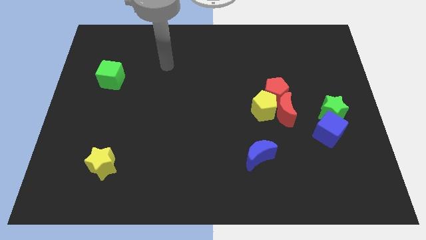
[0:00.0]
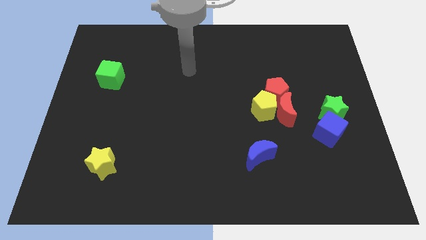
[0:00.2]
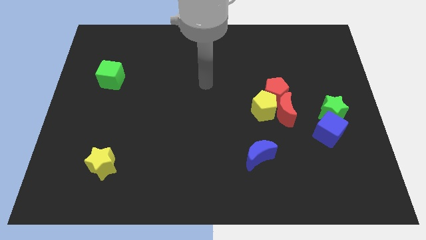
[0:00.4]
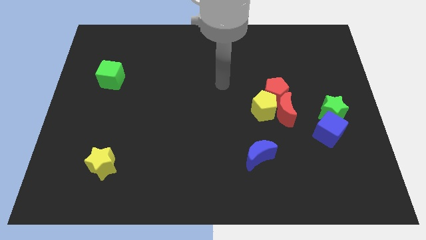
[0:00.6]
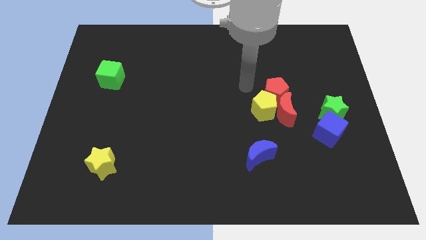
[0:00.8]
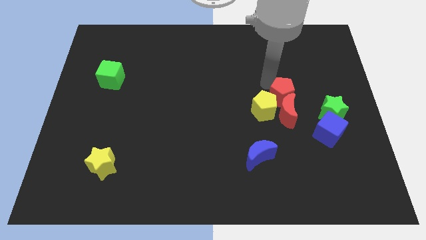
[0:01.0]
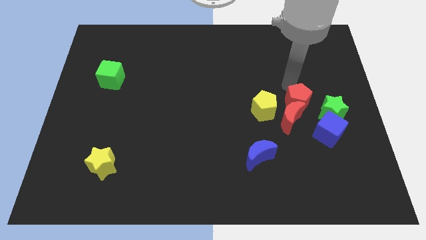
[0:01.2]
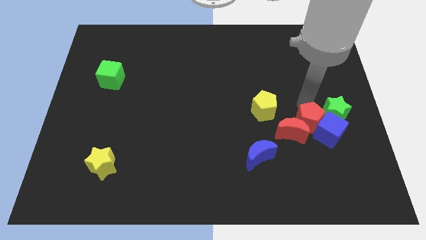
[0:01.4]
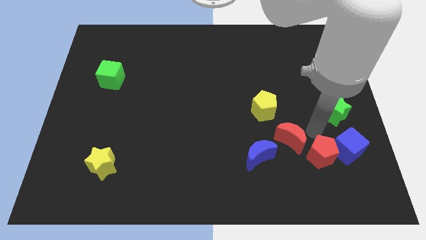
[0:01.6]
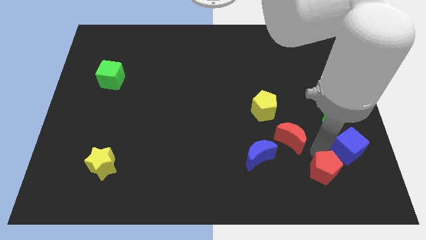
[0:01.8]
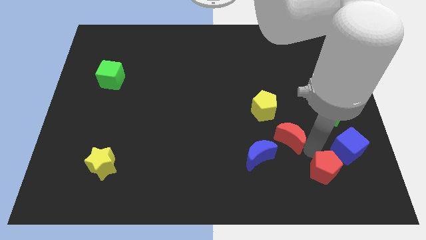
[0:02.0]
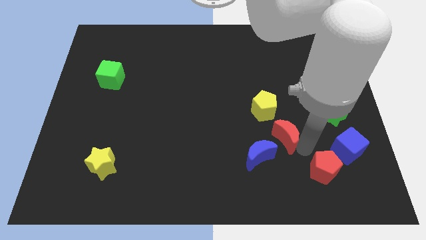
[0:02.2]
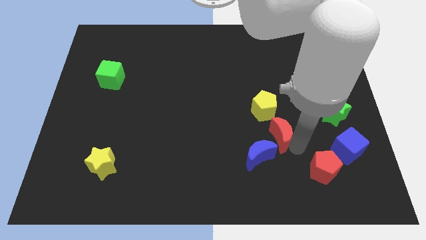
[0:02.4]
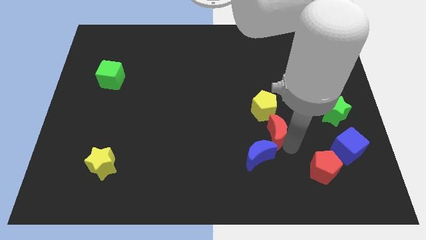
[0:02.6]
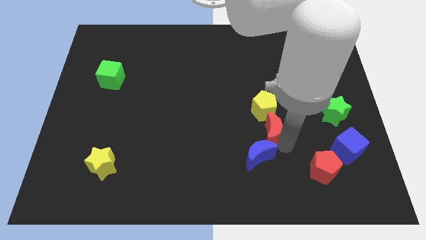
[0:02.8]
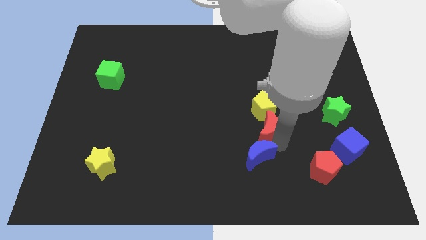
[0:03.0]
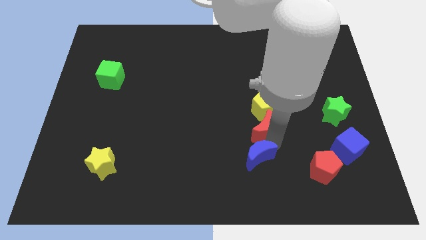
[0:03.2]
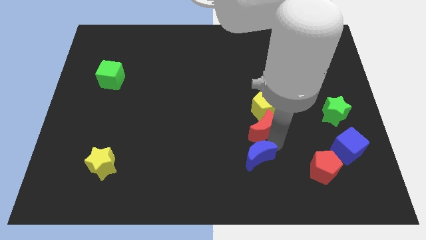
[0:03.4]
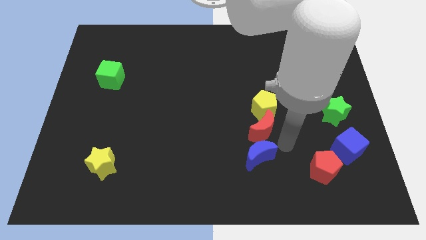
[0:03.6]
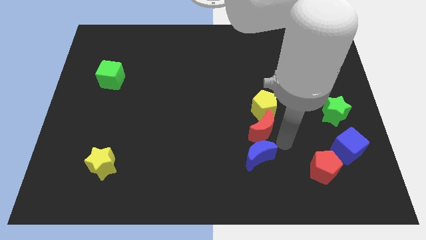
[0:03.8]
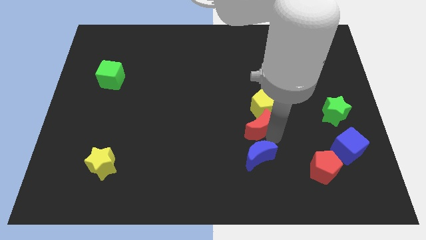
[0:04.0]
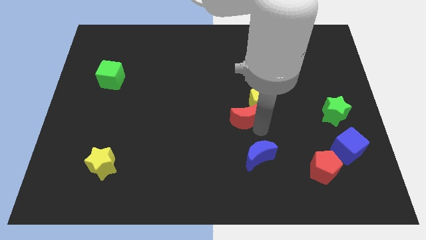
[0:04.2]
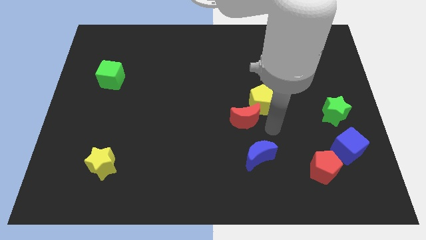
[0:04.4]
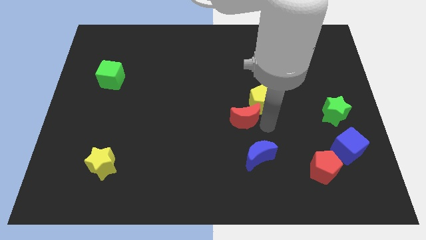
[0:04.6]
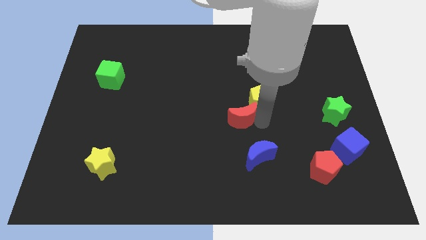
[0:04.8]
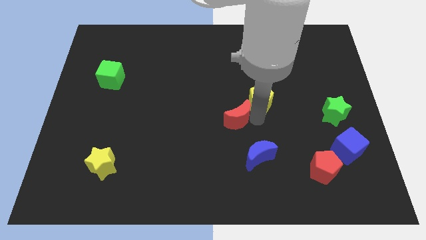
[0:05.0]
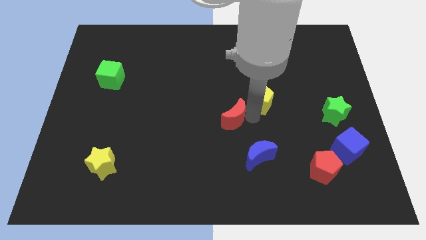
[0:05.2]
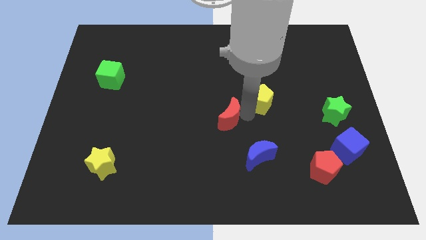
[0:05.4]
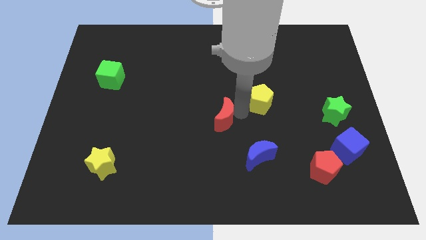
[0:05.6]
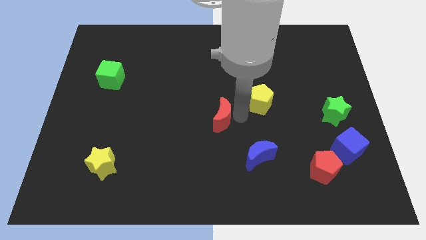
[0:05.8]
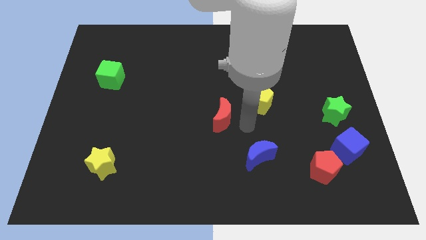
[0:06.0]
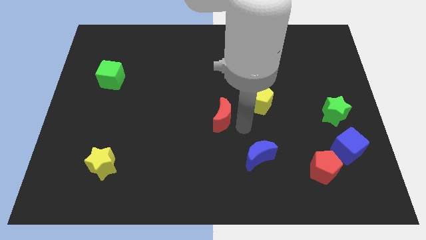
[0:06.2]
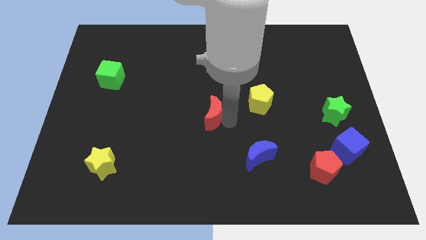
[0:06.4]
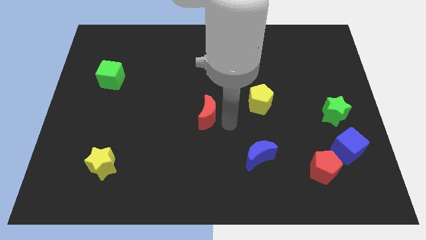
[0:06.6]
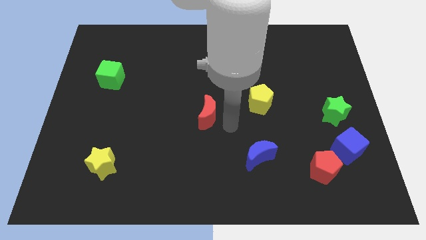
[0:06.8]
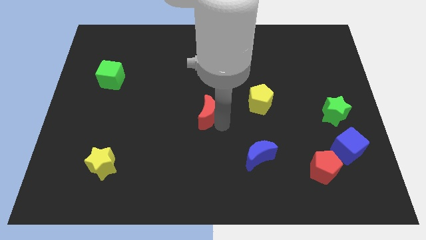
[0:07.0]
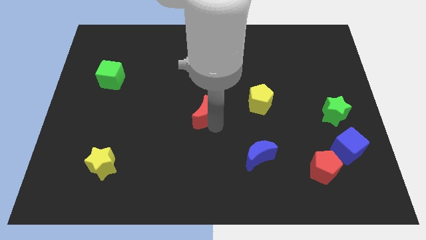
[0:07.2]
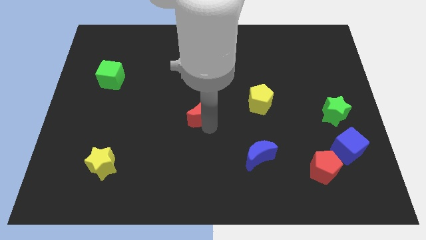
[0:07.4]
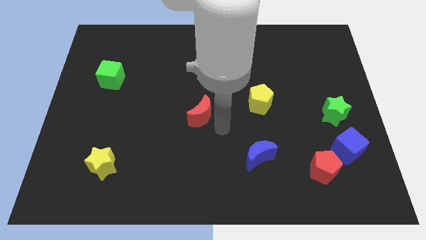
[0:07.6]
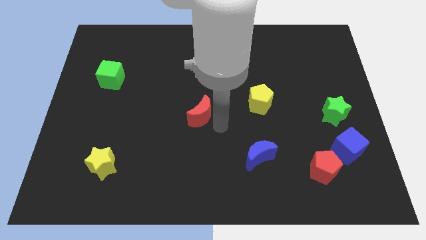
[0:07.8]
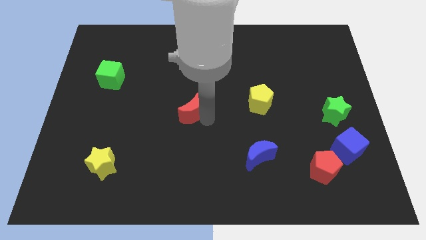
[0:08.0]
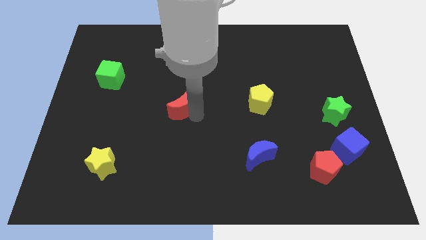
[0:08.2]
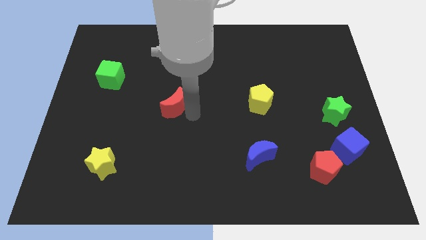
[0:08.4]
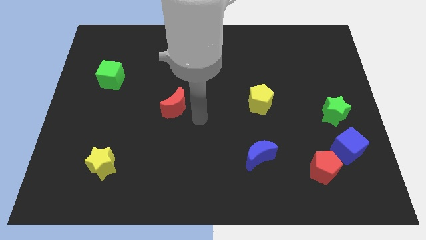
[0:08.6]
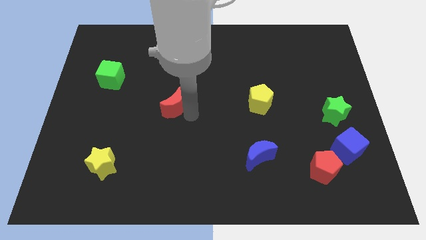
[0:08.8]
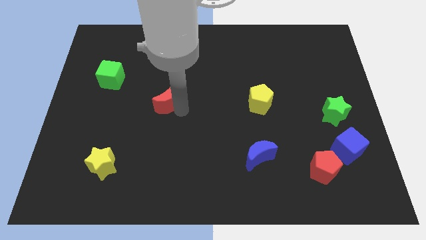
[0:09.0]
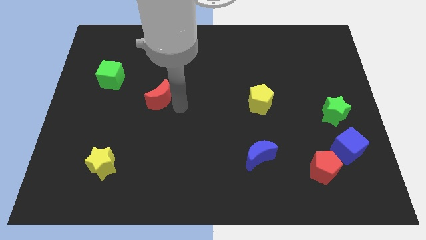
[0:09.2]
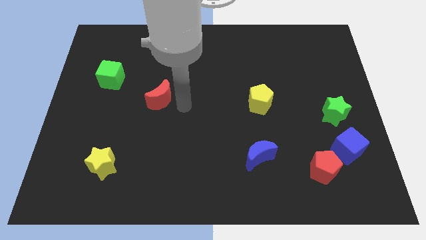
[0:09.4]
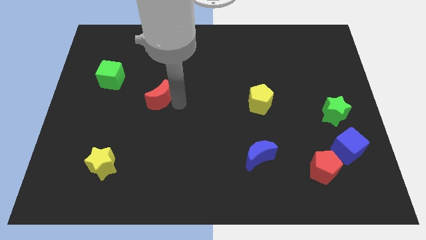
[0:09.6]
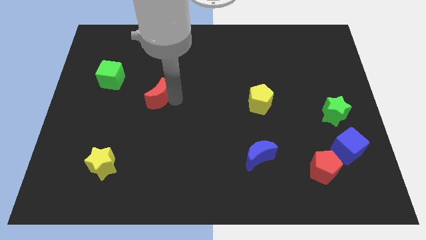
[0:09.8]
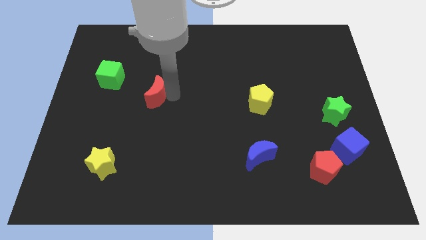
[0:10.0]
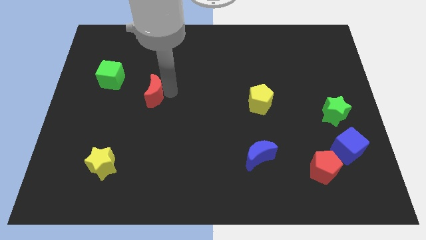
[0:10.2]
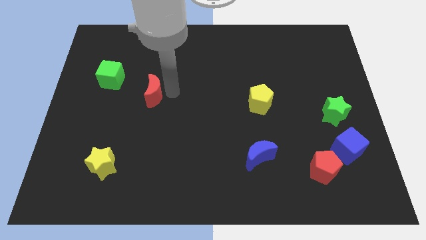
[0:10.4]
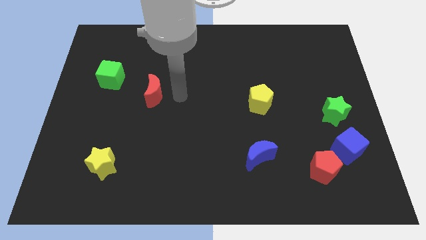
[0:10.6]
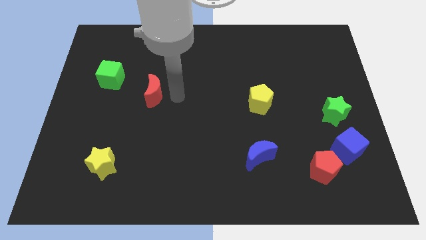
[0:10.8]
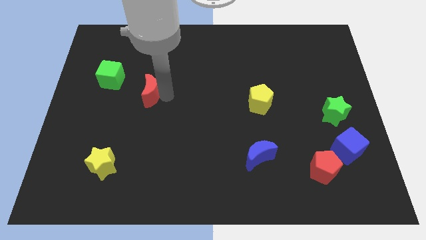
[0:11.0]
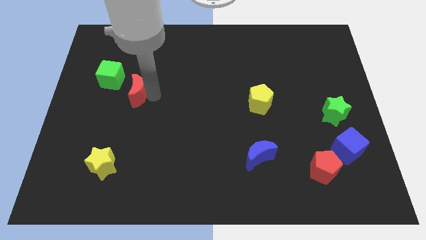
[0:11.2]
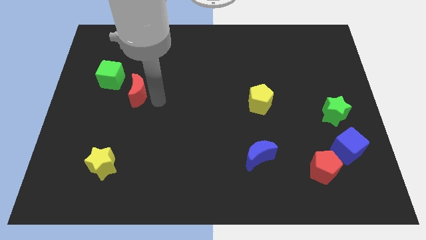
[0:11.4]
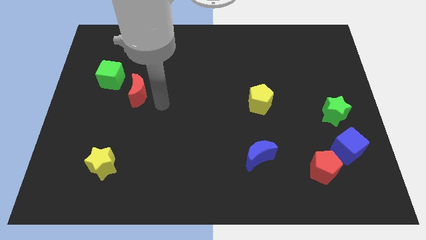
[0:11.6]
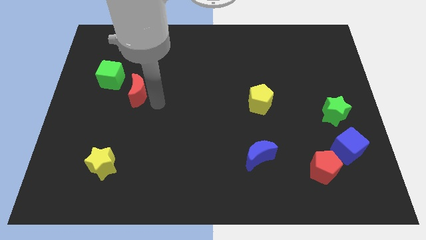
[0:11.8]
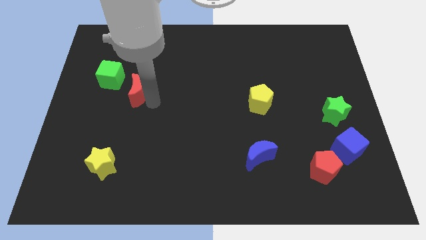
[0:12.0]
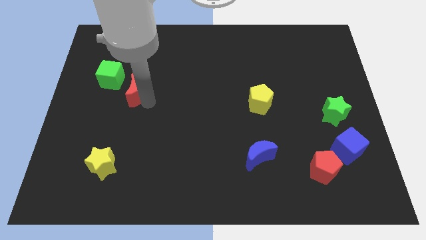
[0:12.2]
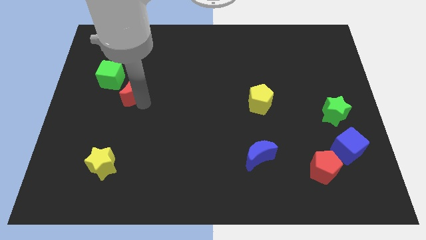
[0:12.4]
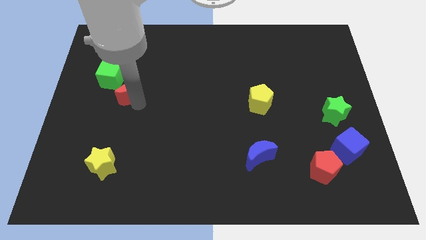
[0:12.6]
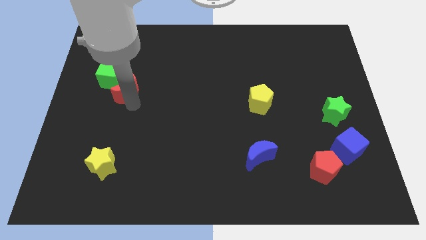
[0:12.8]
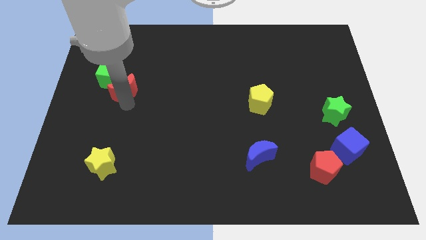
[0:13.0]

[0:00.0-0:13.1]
push the red moon to the green cube

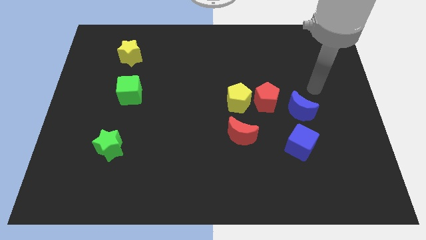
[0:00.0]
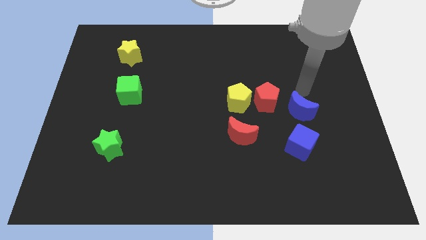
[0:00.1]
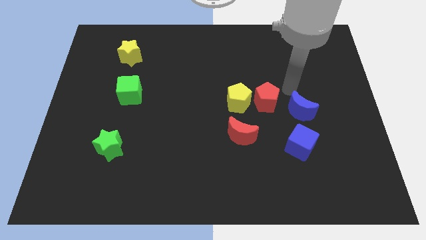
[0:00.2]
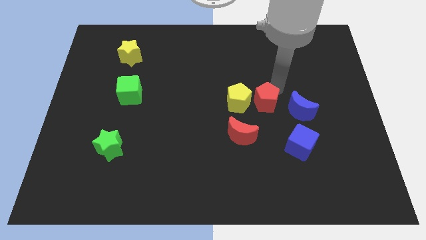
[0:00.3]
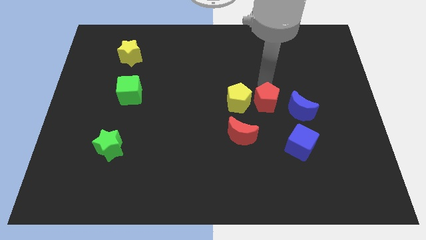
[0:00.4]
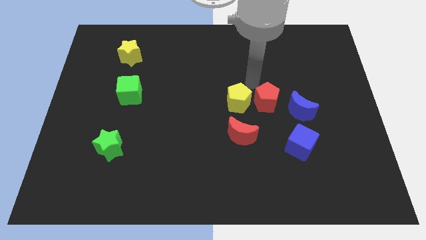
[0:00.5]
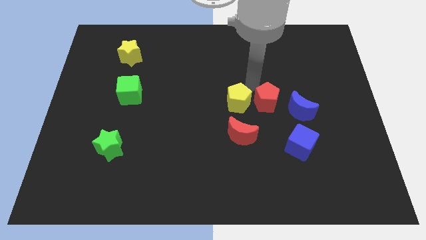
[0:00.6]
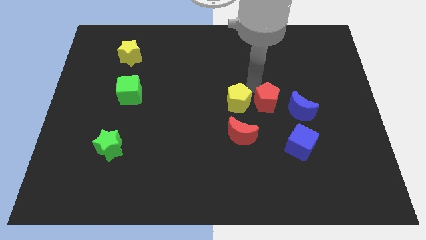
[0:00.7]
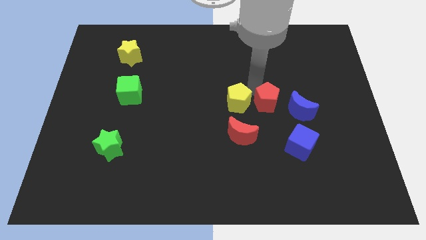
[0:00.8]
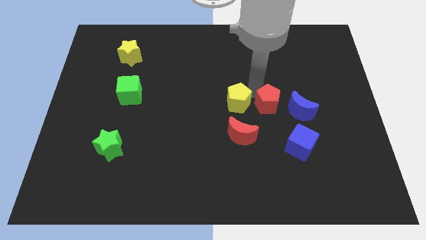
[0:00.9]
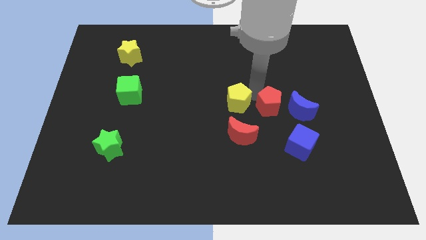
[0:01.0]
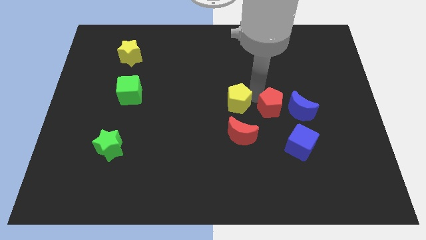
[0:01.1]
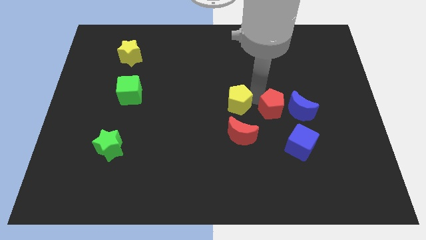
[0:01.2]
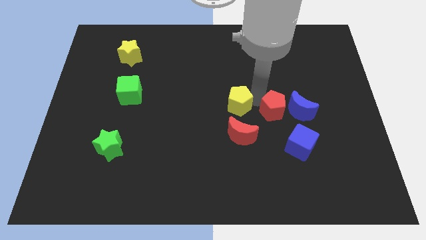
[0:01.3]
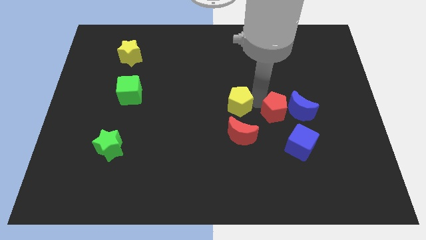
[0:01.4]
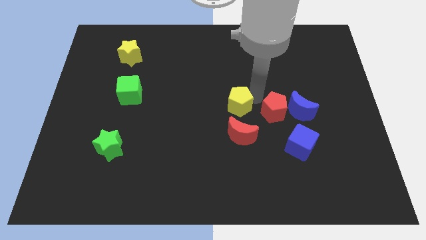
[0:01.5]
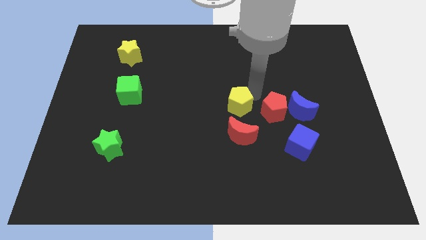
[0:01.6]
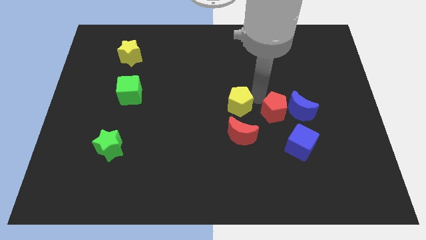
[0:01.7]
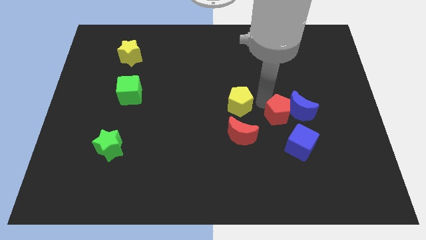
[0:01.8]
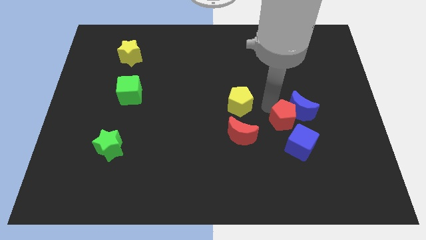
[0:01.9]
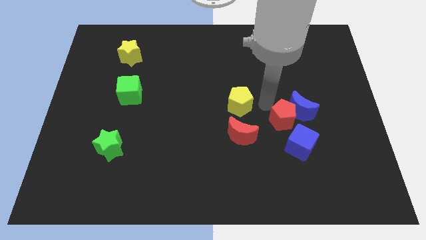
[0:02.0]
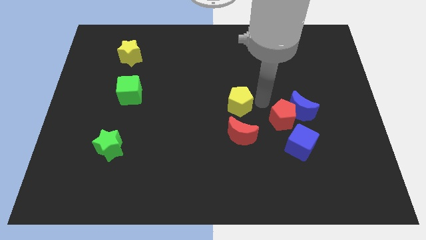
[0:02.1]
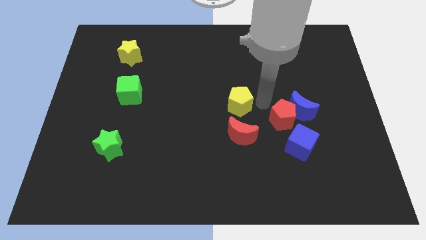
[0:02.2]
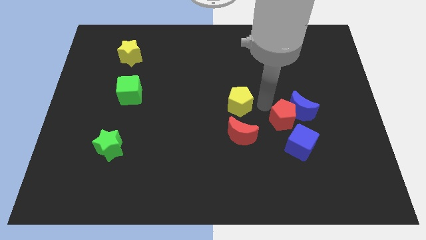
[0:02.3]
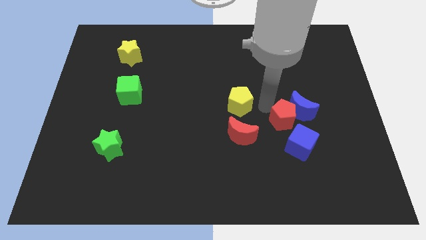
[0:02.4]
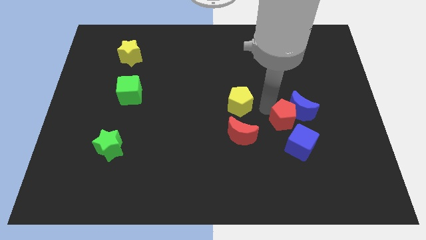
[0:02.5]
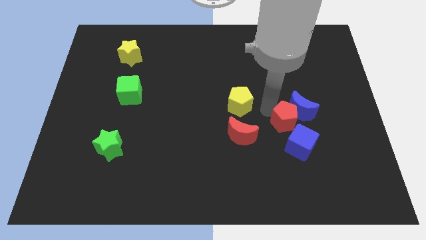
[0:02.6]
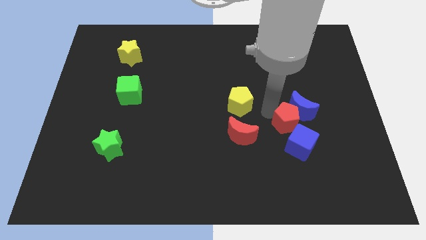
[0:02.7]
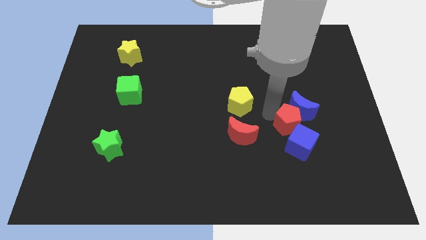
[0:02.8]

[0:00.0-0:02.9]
push the red pentagon close to the blue cube
